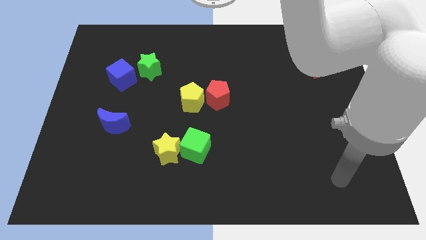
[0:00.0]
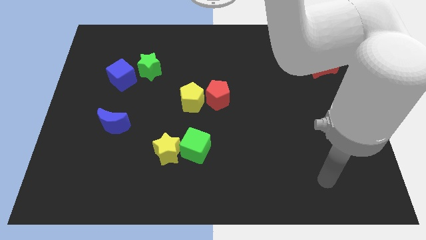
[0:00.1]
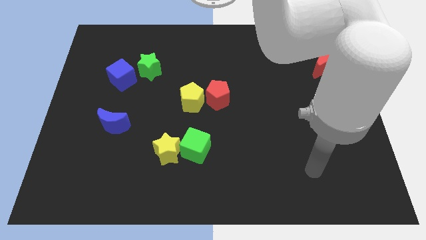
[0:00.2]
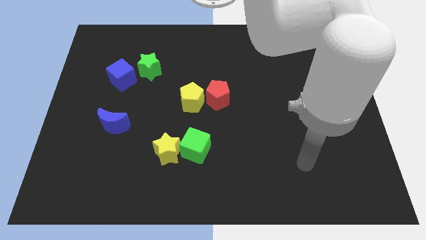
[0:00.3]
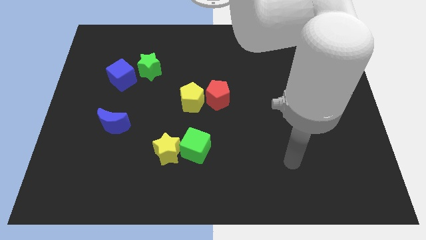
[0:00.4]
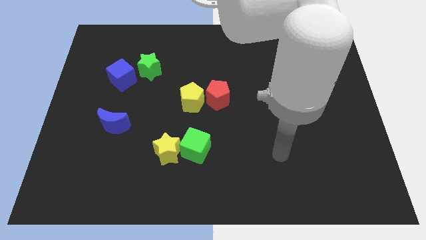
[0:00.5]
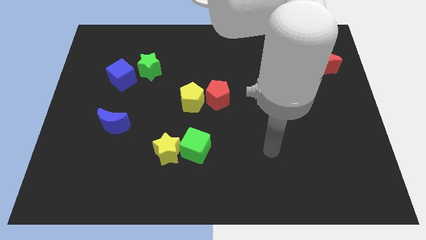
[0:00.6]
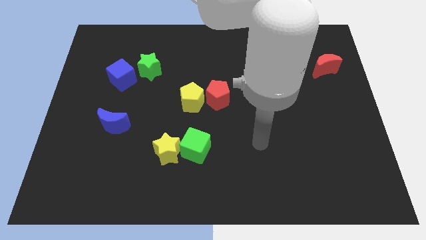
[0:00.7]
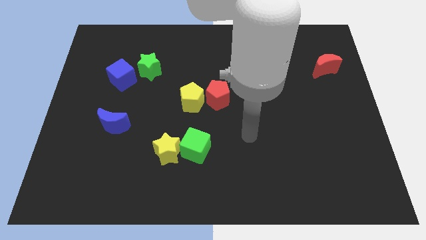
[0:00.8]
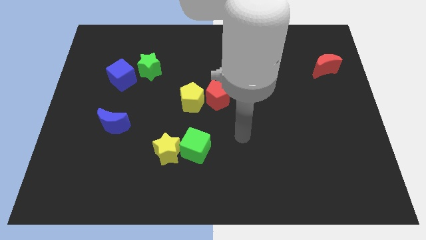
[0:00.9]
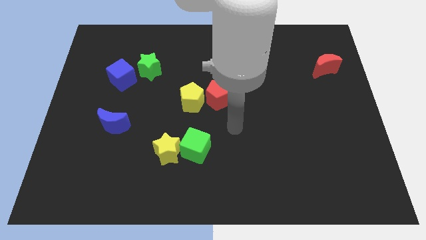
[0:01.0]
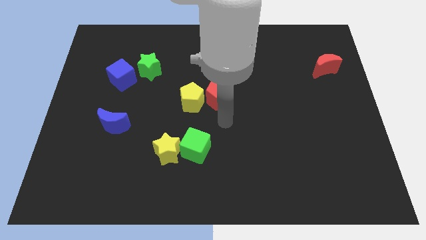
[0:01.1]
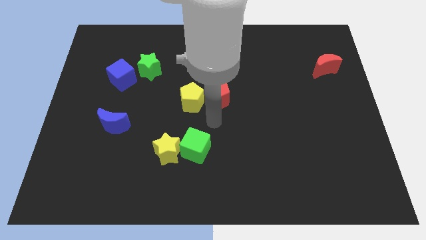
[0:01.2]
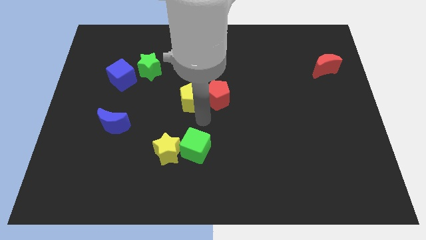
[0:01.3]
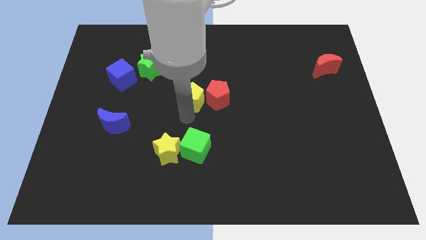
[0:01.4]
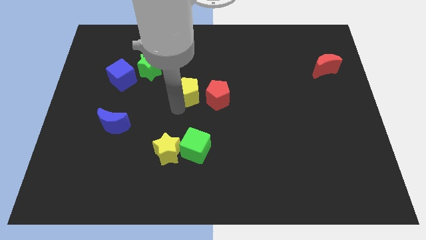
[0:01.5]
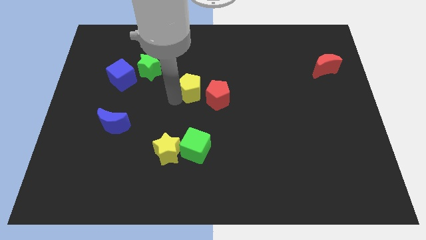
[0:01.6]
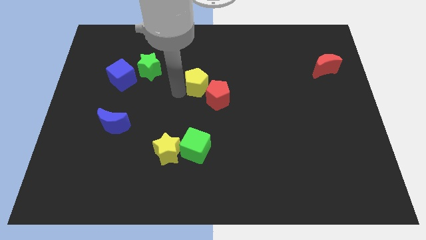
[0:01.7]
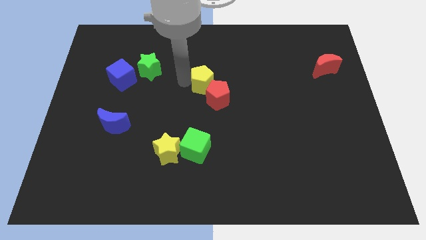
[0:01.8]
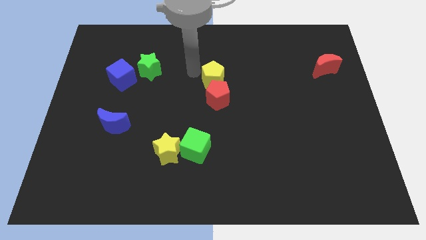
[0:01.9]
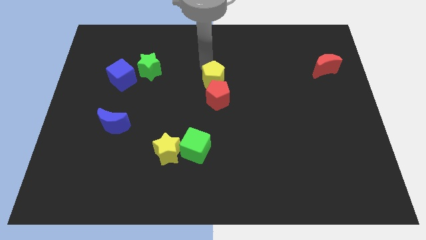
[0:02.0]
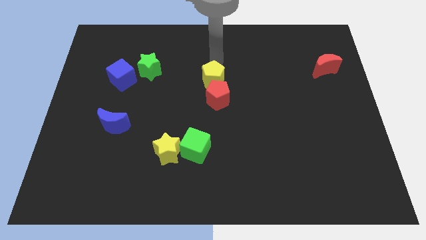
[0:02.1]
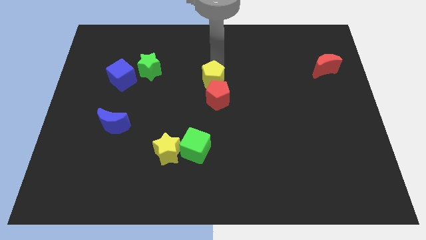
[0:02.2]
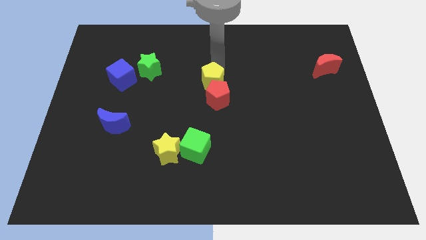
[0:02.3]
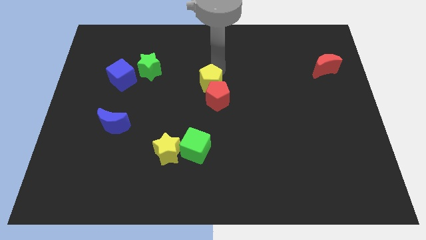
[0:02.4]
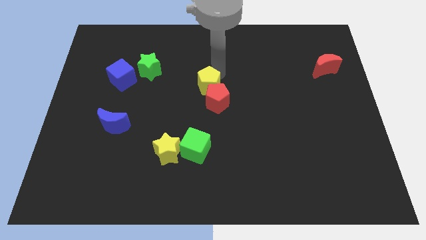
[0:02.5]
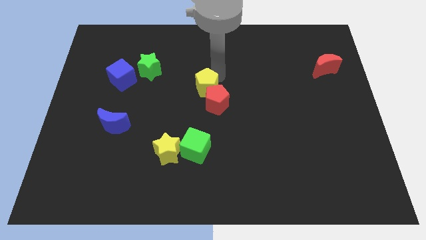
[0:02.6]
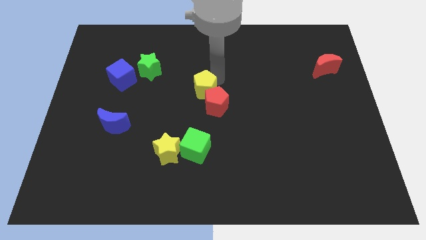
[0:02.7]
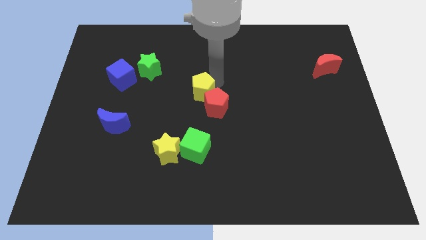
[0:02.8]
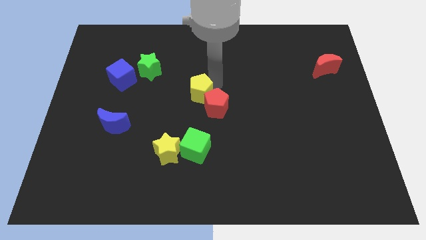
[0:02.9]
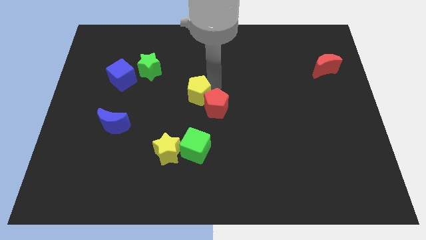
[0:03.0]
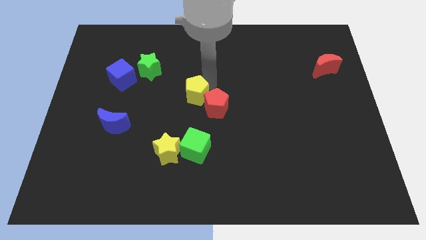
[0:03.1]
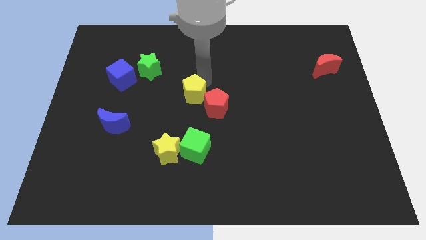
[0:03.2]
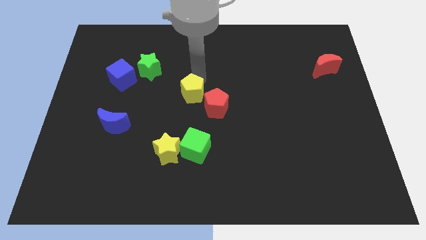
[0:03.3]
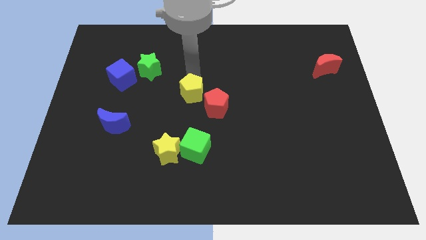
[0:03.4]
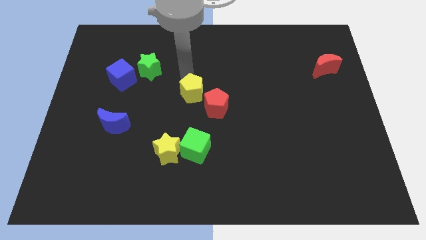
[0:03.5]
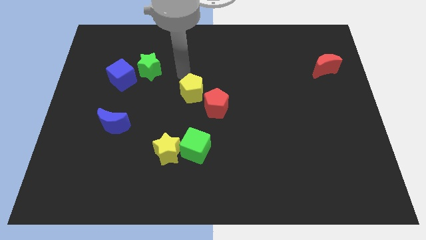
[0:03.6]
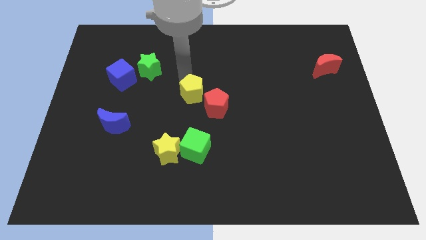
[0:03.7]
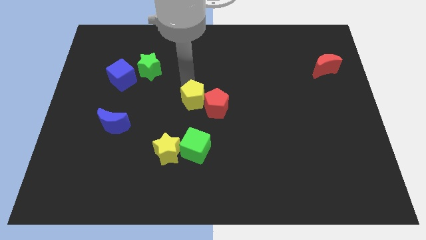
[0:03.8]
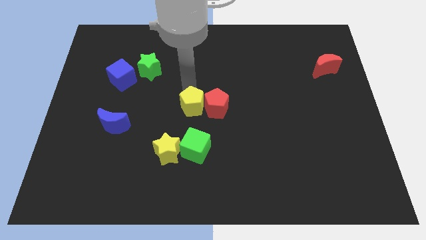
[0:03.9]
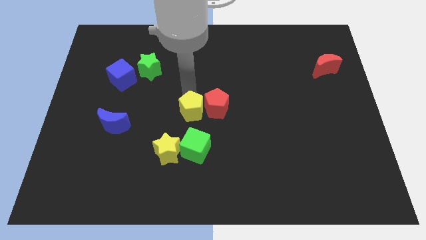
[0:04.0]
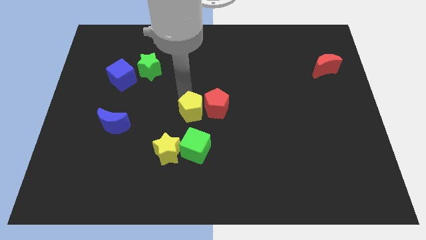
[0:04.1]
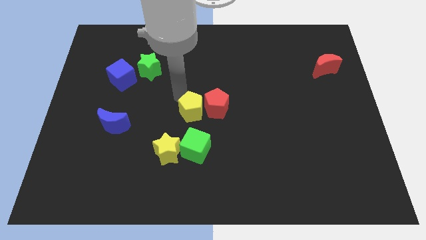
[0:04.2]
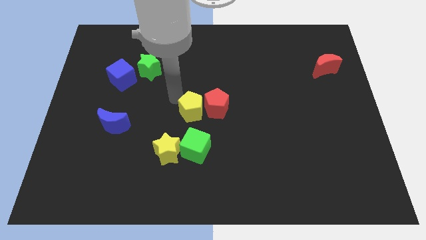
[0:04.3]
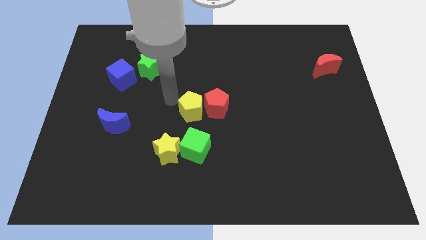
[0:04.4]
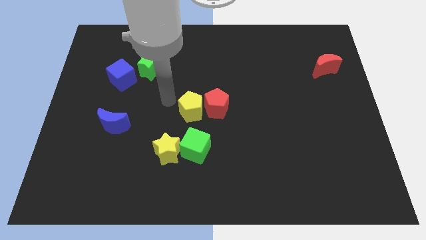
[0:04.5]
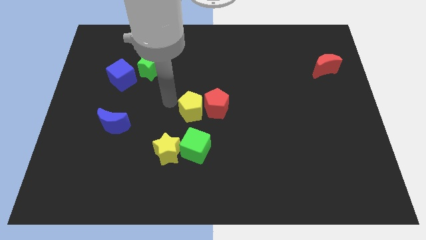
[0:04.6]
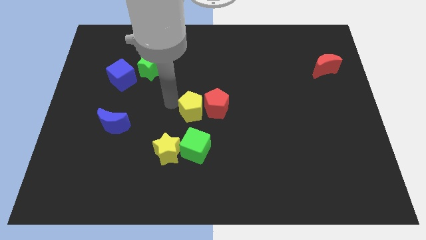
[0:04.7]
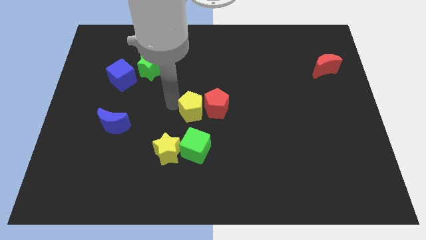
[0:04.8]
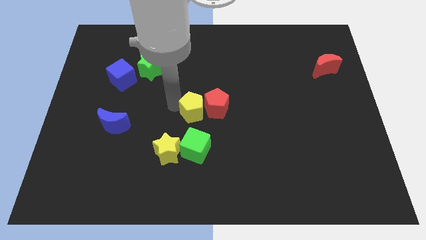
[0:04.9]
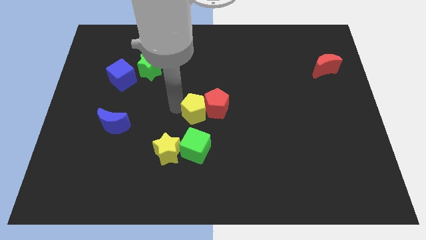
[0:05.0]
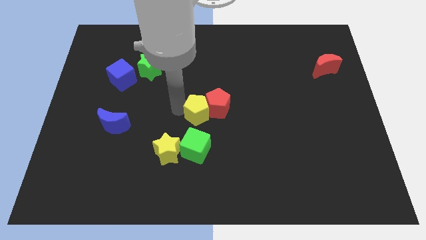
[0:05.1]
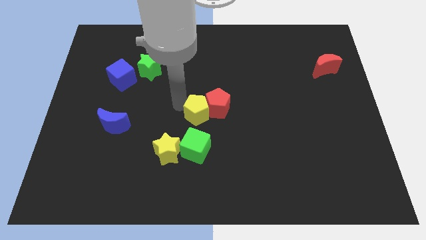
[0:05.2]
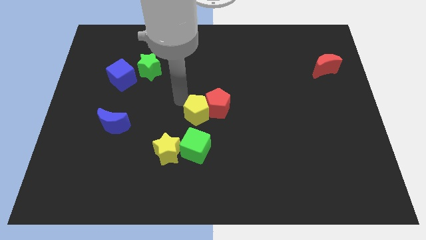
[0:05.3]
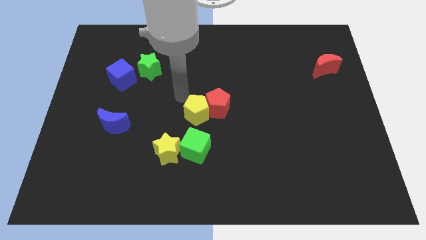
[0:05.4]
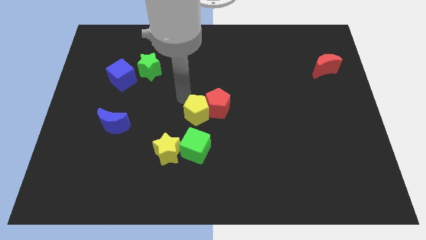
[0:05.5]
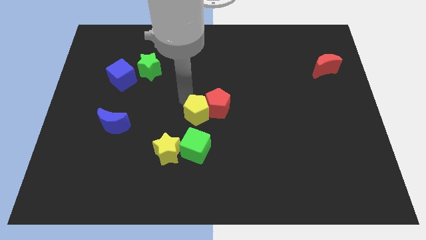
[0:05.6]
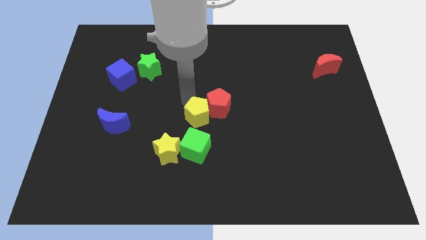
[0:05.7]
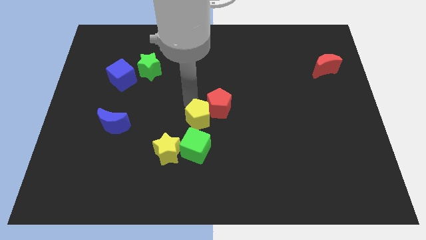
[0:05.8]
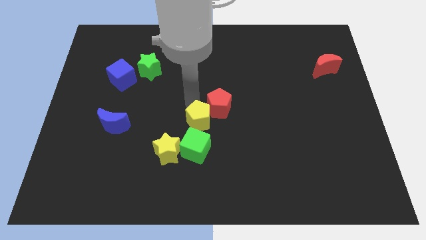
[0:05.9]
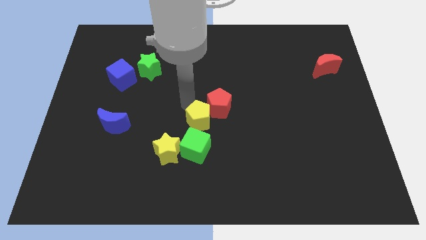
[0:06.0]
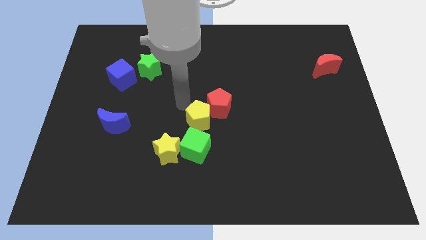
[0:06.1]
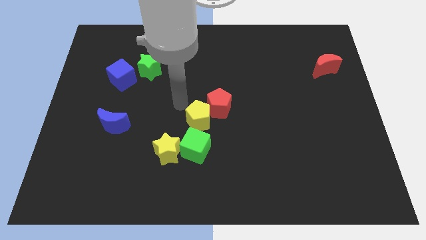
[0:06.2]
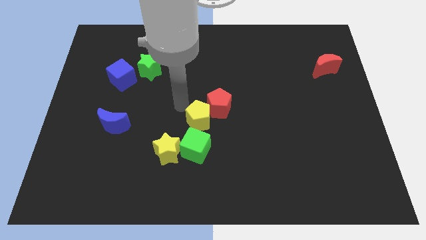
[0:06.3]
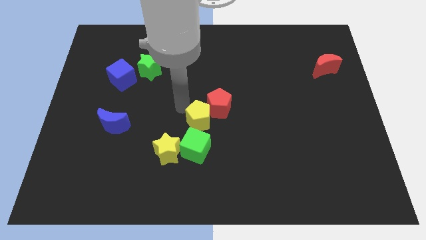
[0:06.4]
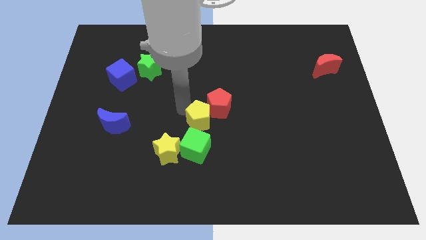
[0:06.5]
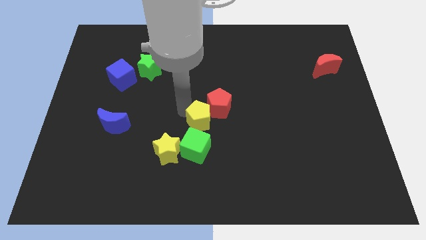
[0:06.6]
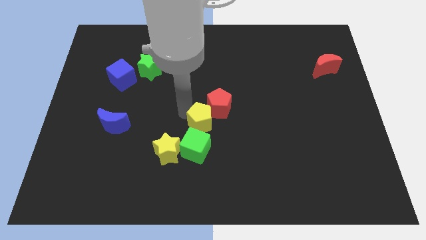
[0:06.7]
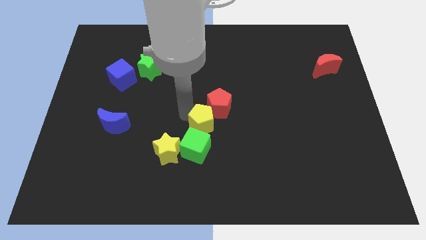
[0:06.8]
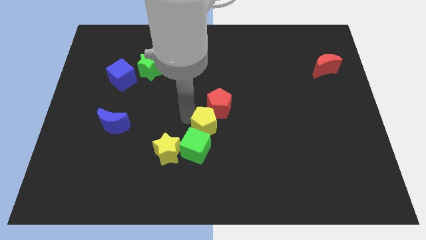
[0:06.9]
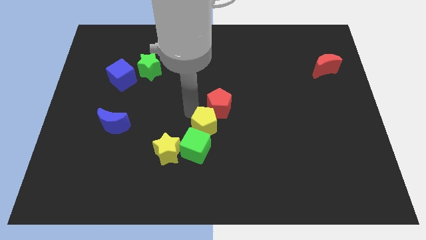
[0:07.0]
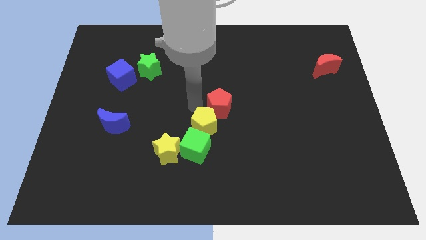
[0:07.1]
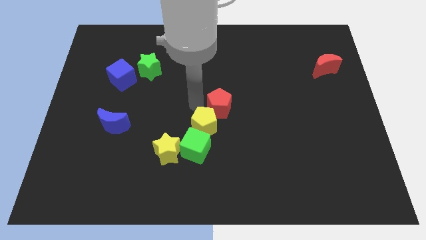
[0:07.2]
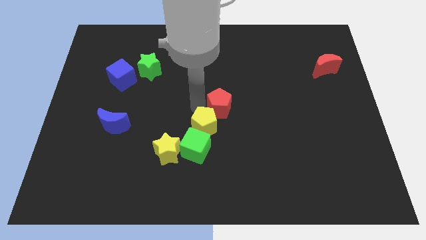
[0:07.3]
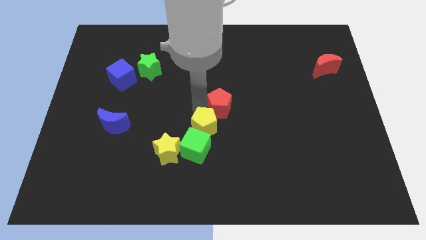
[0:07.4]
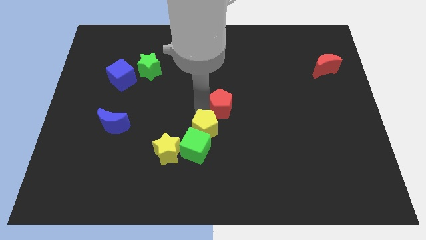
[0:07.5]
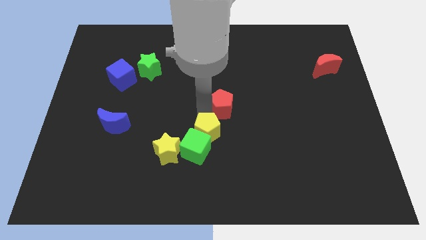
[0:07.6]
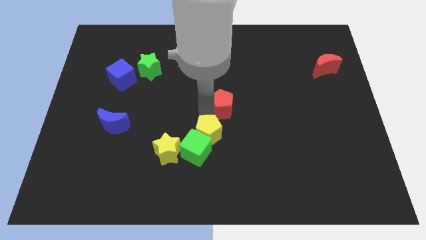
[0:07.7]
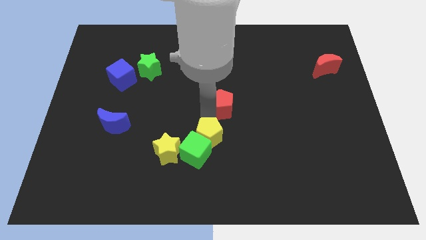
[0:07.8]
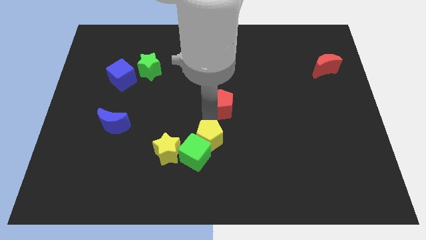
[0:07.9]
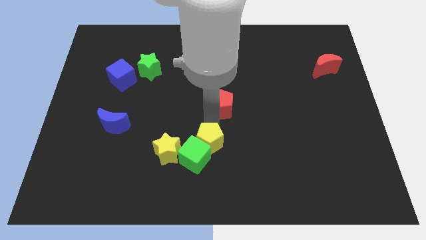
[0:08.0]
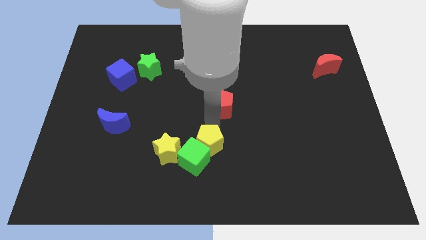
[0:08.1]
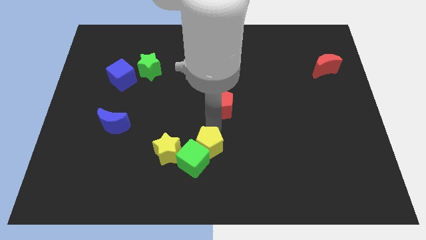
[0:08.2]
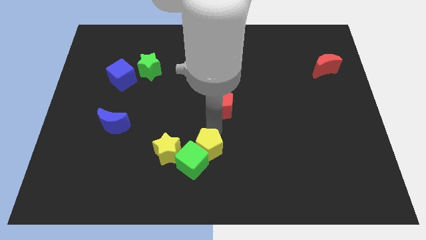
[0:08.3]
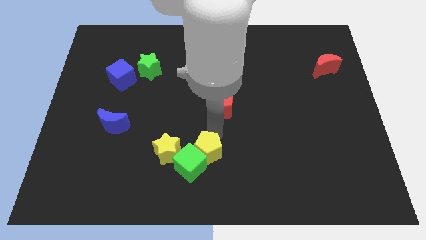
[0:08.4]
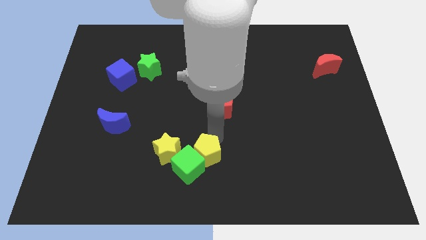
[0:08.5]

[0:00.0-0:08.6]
put the yellow pentagon to the bottom
